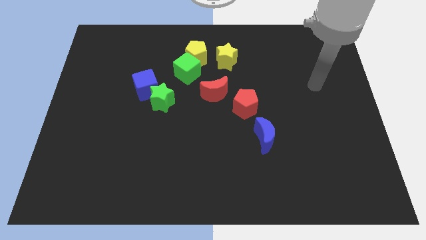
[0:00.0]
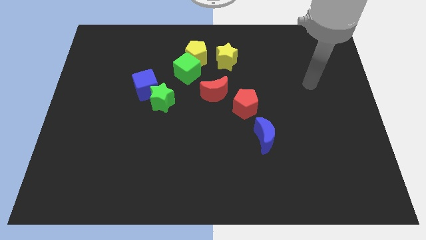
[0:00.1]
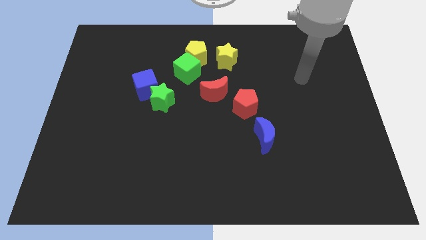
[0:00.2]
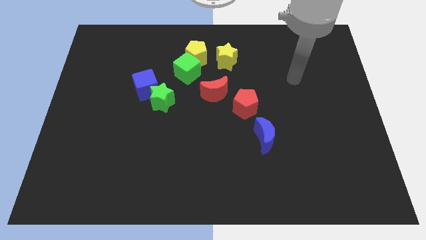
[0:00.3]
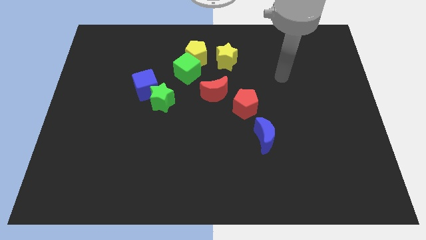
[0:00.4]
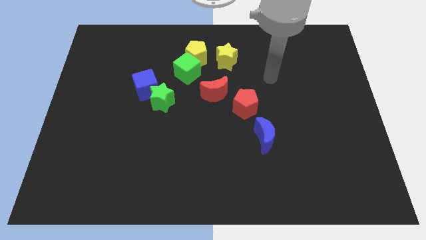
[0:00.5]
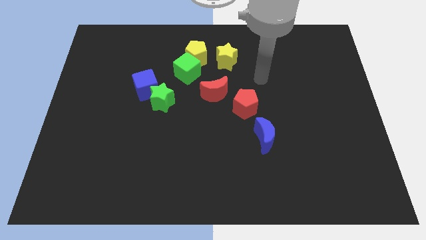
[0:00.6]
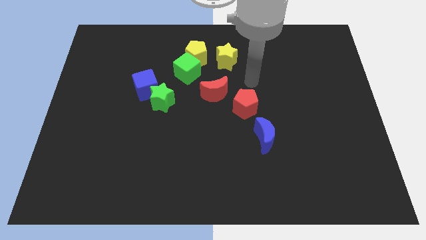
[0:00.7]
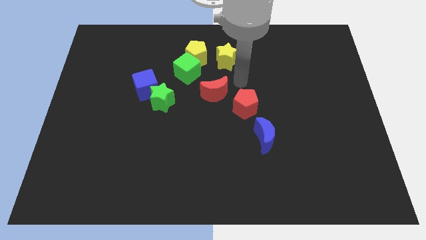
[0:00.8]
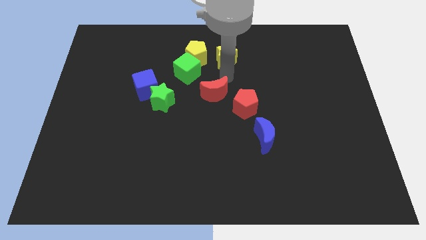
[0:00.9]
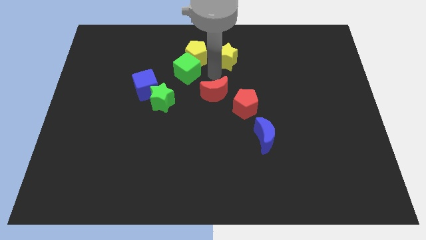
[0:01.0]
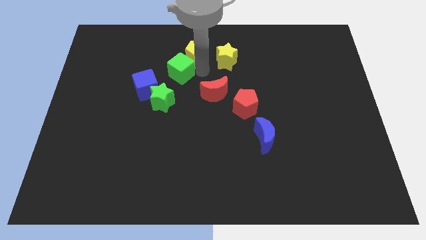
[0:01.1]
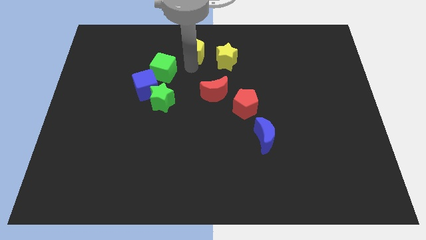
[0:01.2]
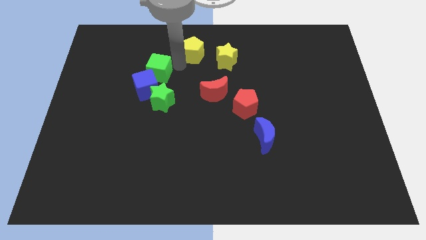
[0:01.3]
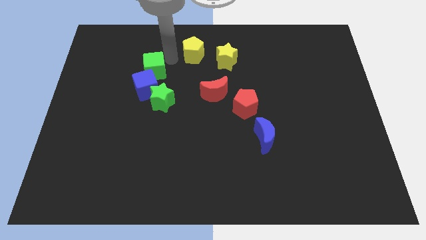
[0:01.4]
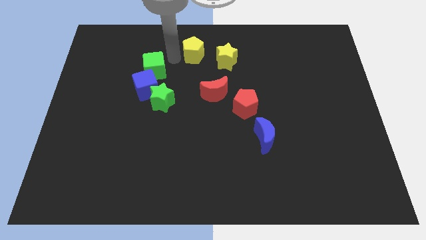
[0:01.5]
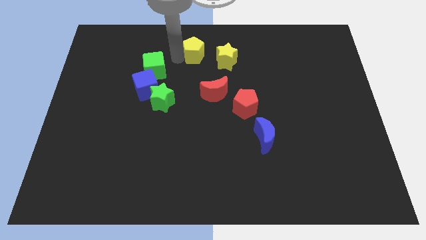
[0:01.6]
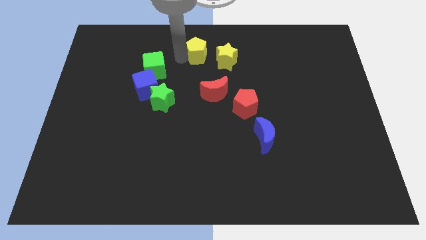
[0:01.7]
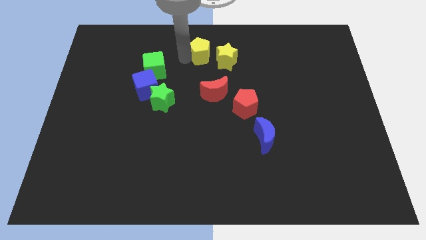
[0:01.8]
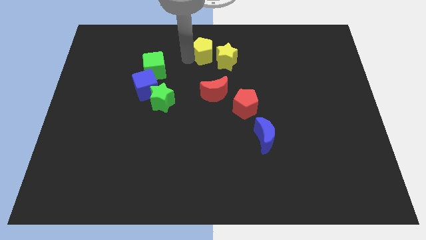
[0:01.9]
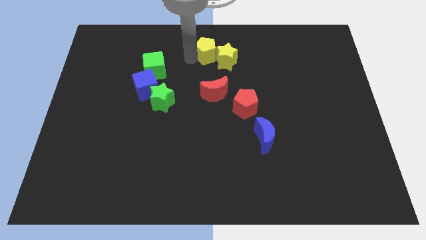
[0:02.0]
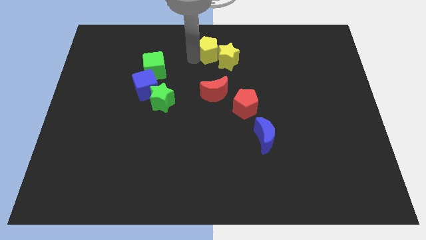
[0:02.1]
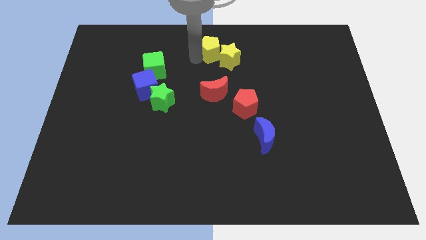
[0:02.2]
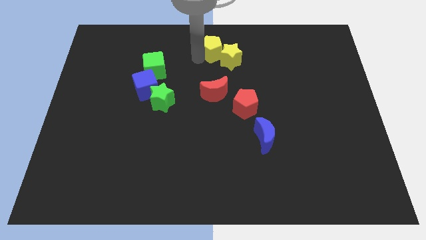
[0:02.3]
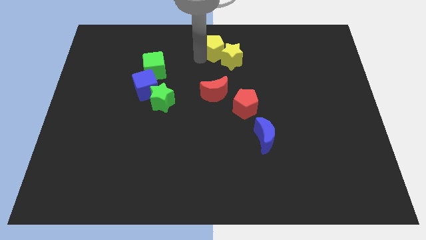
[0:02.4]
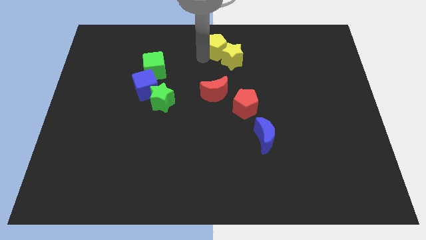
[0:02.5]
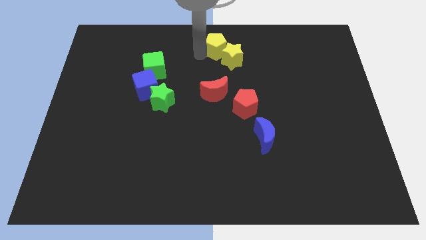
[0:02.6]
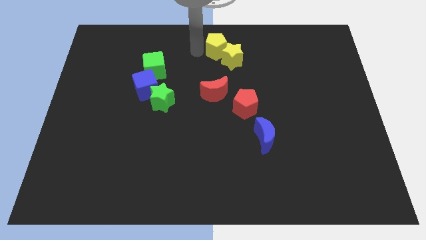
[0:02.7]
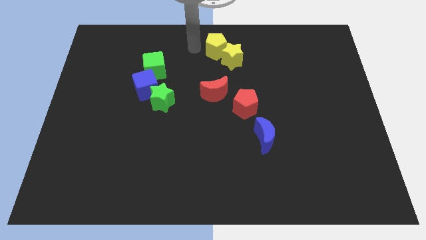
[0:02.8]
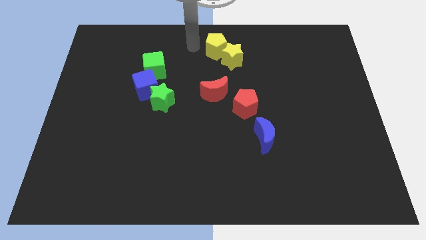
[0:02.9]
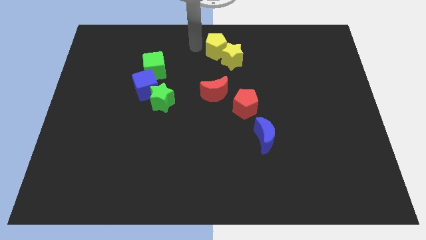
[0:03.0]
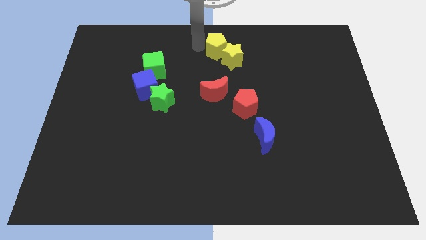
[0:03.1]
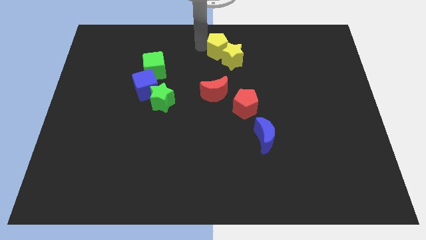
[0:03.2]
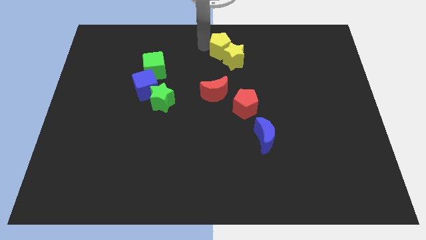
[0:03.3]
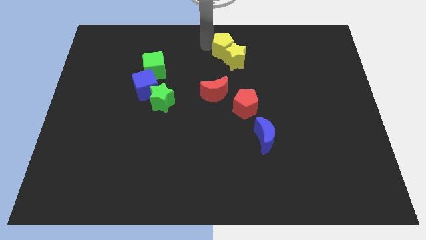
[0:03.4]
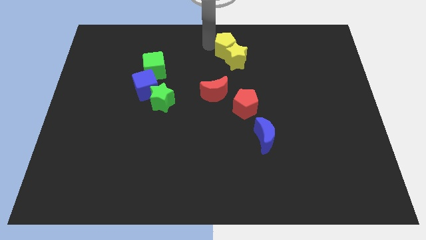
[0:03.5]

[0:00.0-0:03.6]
slightly slide the yellow pentagon right

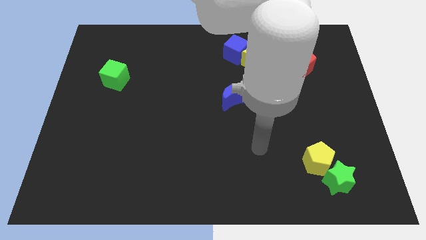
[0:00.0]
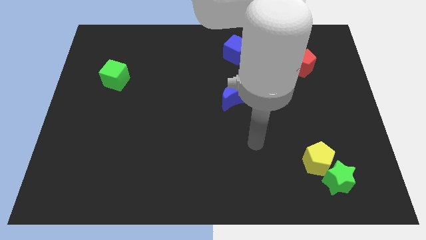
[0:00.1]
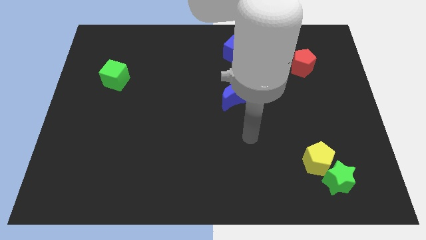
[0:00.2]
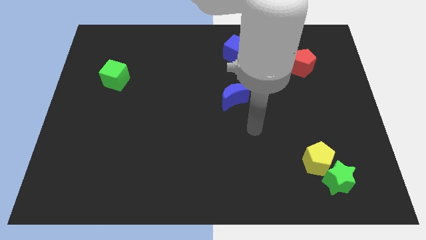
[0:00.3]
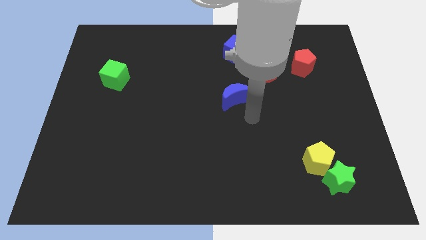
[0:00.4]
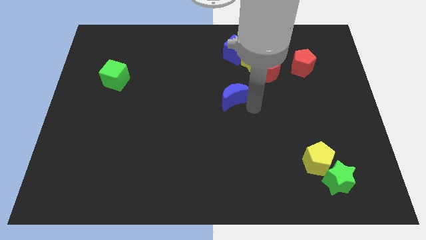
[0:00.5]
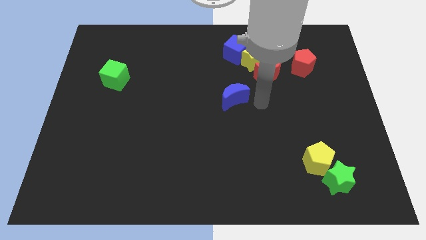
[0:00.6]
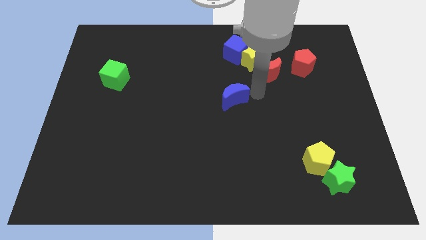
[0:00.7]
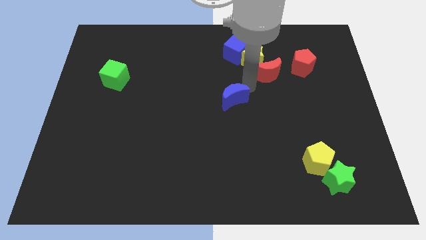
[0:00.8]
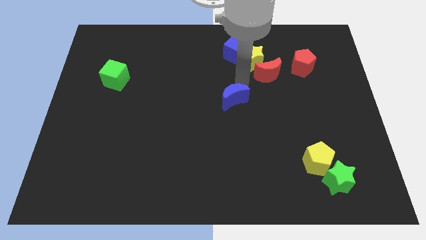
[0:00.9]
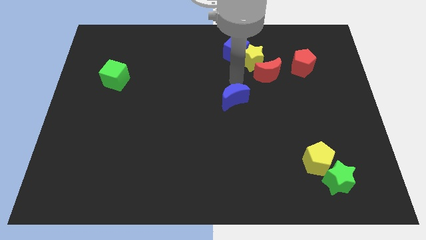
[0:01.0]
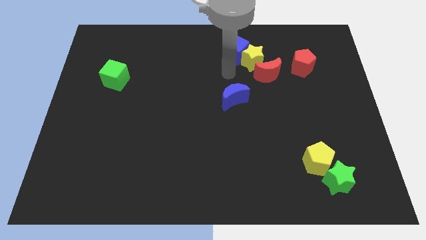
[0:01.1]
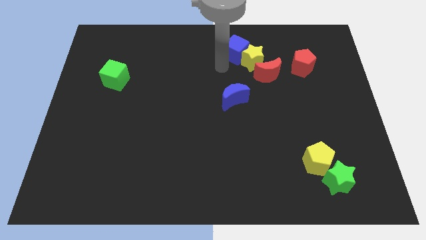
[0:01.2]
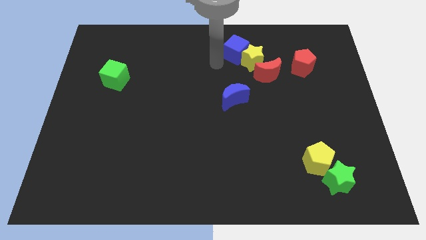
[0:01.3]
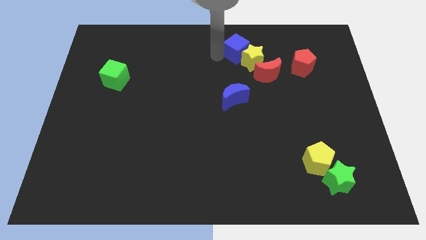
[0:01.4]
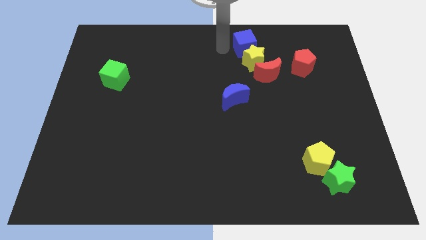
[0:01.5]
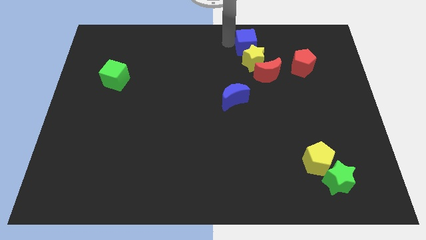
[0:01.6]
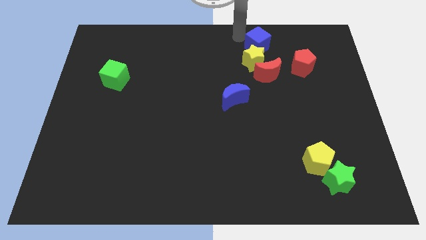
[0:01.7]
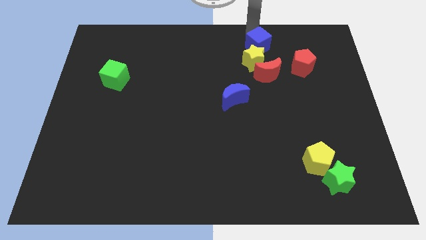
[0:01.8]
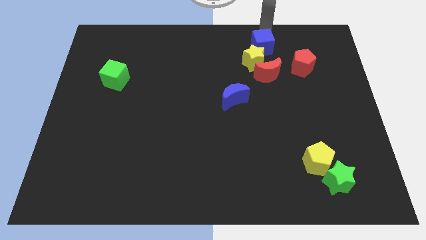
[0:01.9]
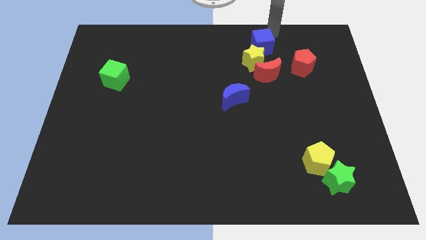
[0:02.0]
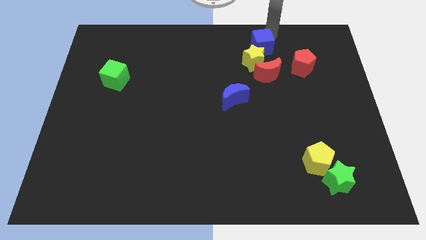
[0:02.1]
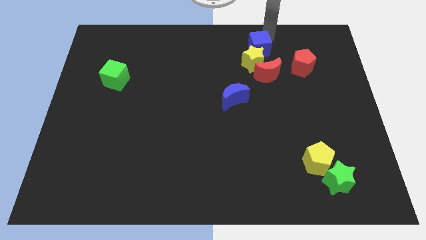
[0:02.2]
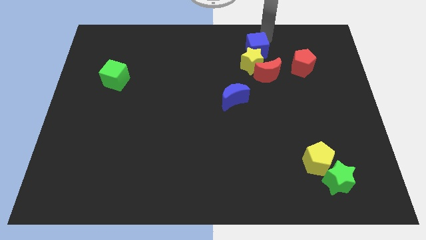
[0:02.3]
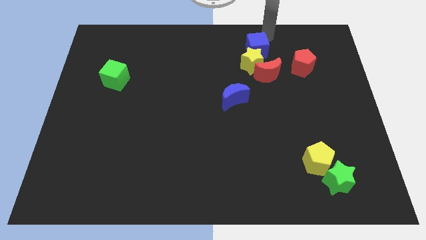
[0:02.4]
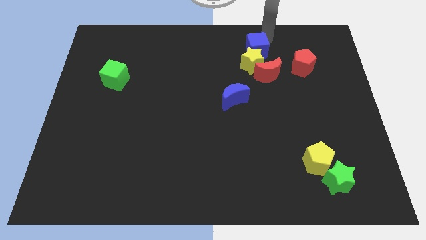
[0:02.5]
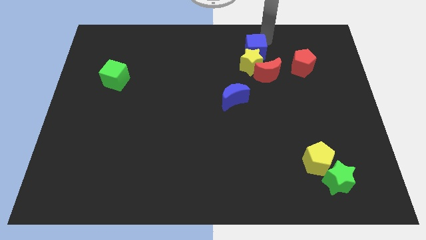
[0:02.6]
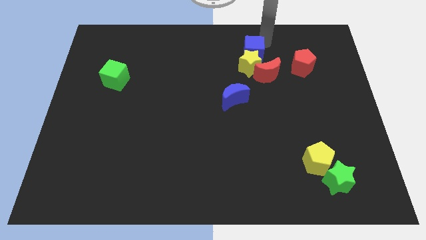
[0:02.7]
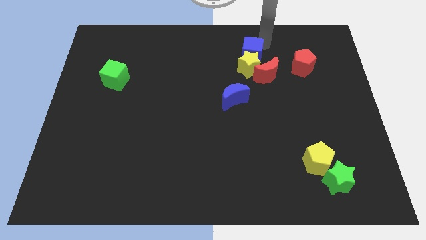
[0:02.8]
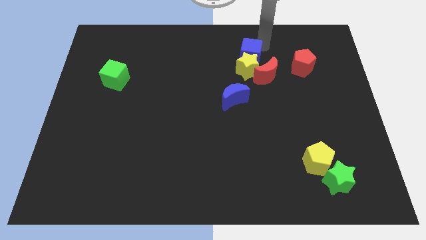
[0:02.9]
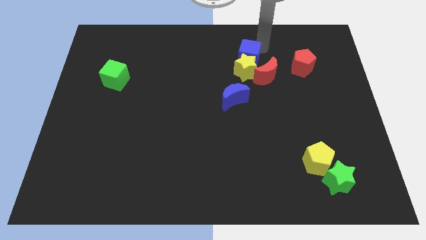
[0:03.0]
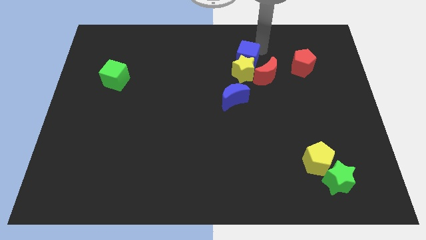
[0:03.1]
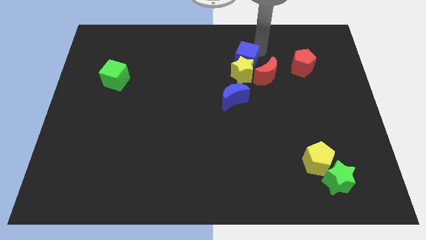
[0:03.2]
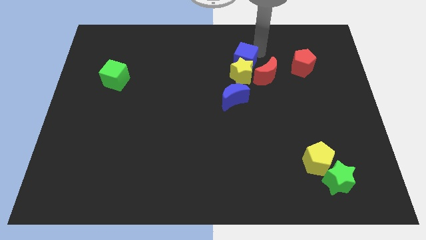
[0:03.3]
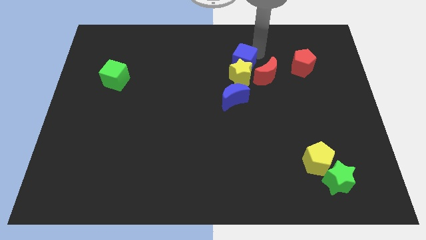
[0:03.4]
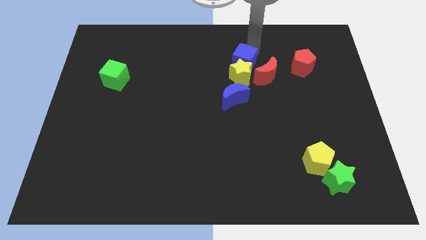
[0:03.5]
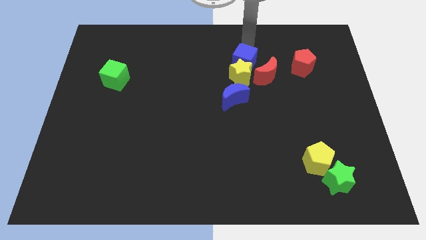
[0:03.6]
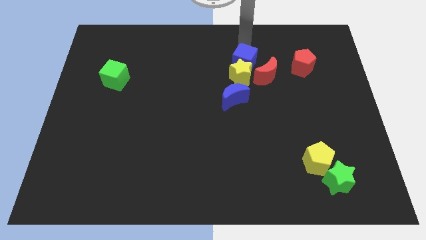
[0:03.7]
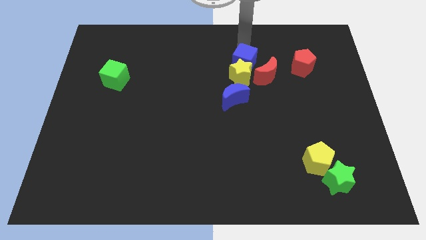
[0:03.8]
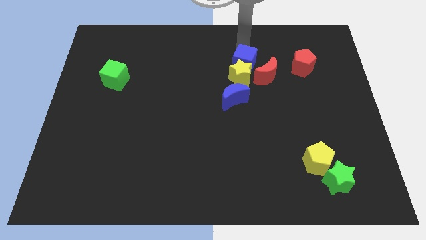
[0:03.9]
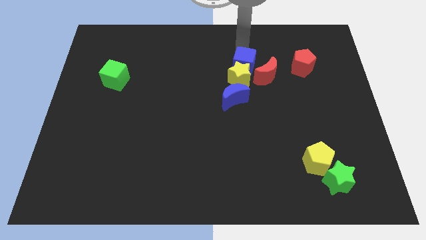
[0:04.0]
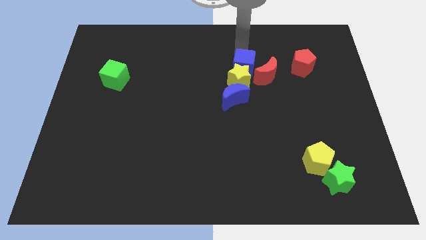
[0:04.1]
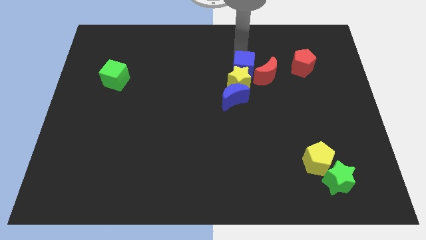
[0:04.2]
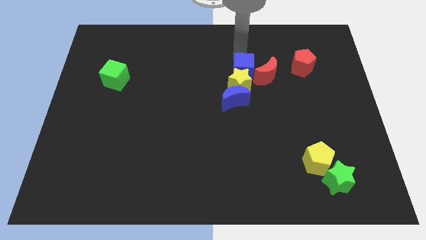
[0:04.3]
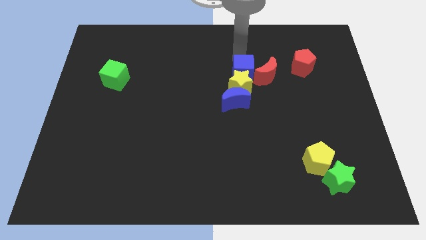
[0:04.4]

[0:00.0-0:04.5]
slightly slide the blue cube downwards

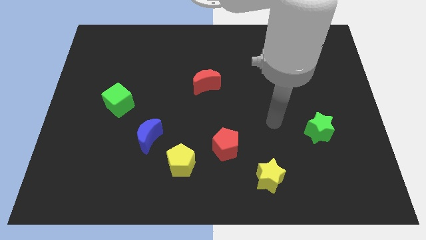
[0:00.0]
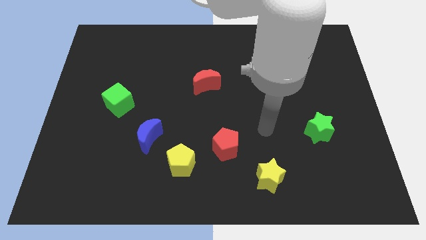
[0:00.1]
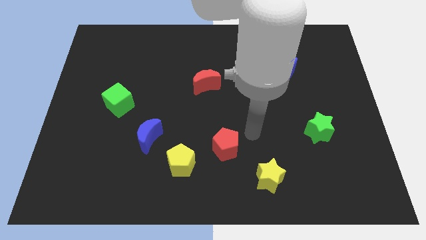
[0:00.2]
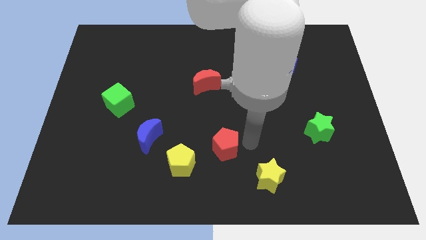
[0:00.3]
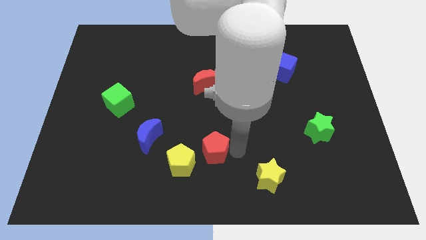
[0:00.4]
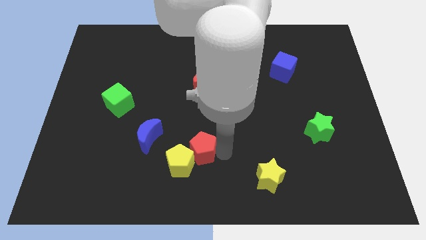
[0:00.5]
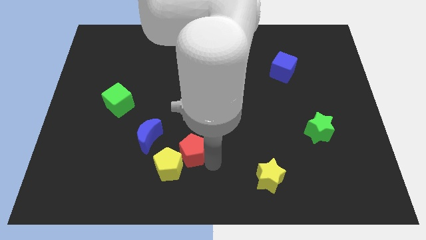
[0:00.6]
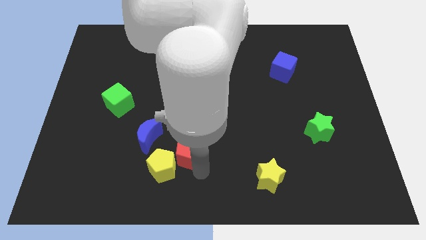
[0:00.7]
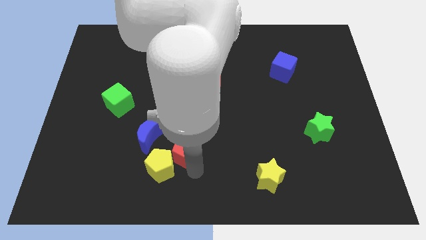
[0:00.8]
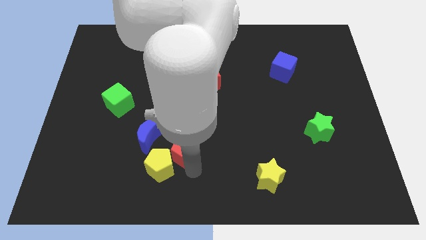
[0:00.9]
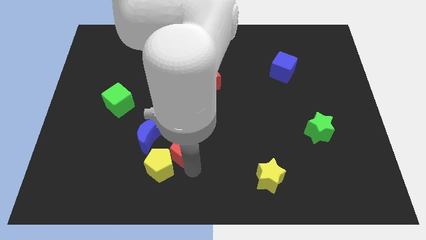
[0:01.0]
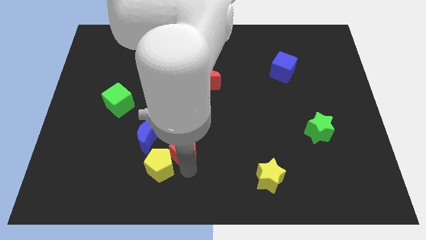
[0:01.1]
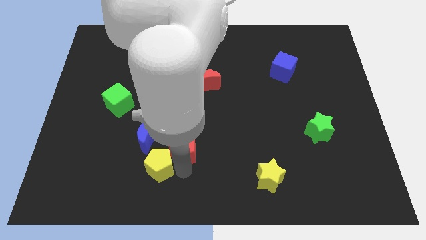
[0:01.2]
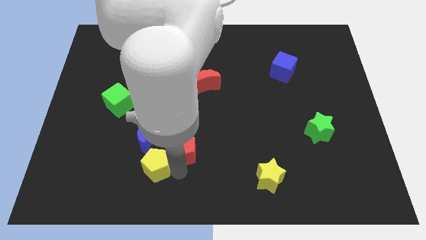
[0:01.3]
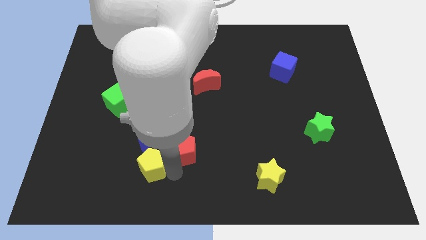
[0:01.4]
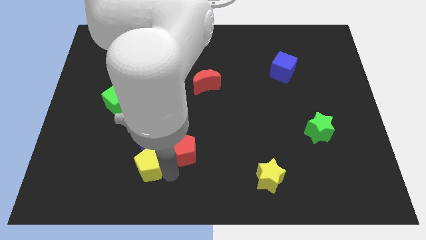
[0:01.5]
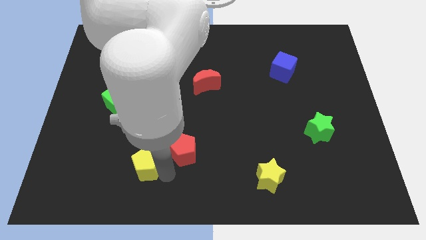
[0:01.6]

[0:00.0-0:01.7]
slide the yellow pentagon to the left somewhat
